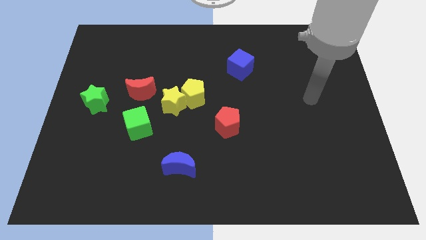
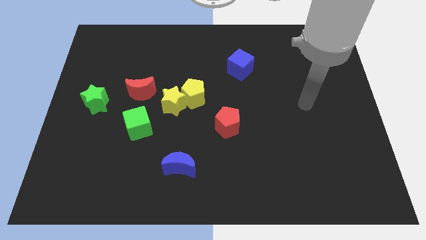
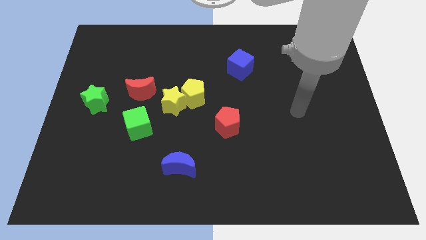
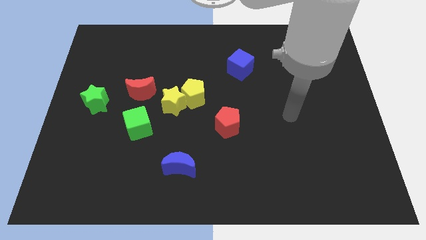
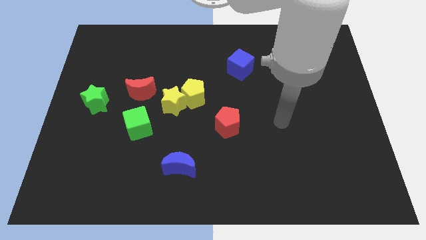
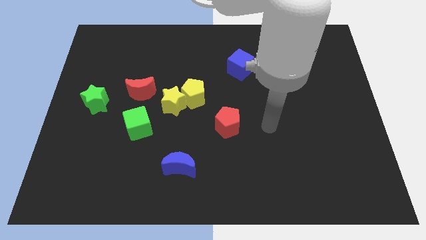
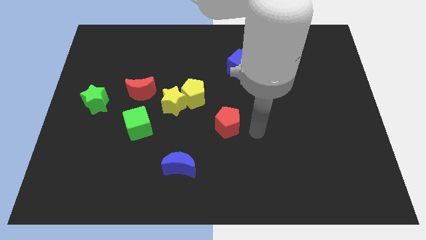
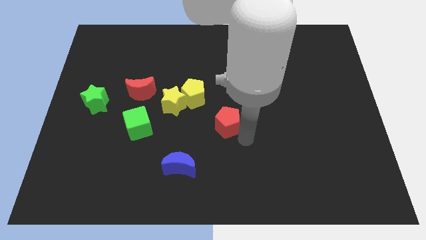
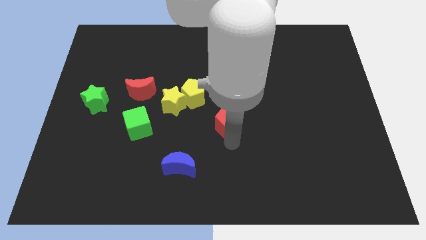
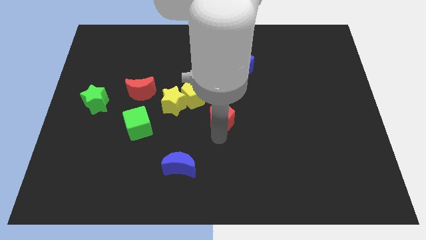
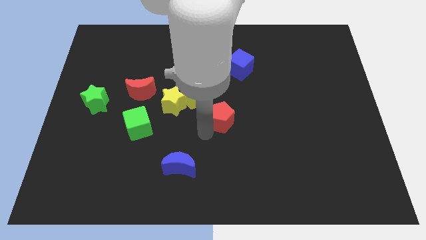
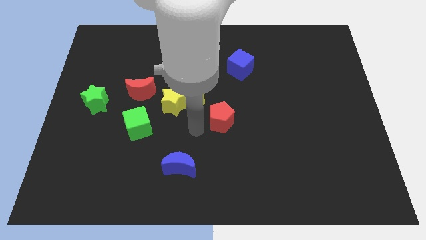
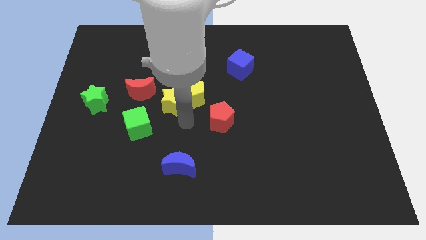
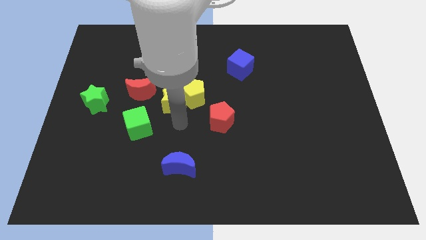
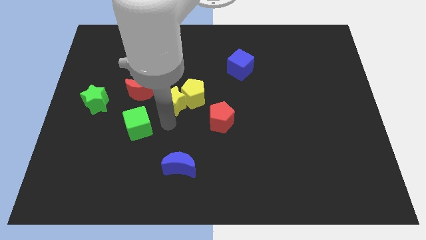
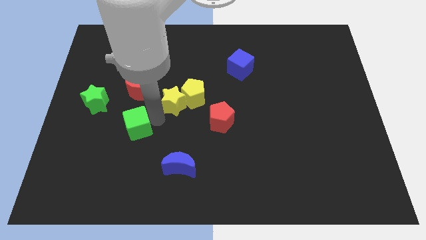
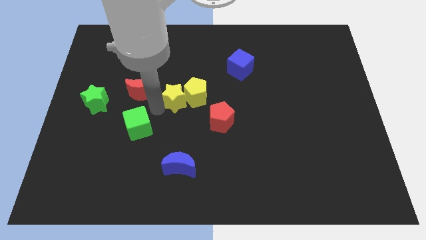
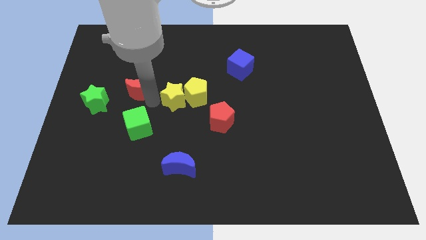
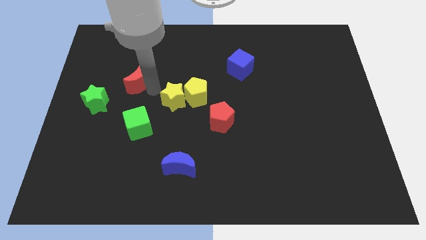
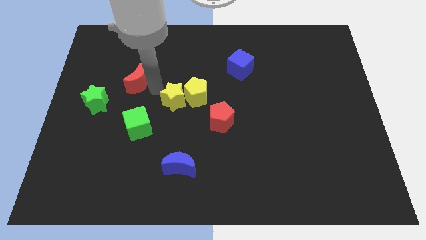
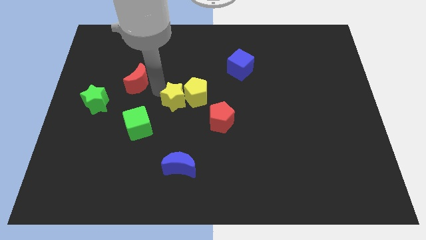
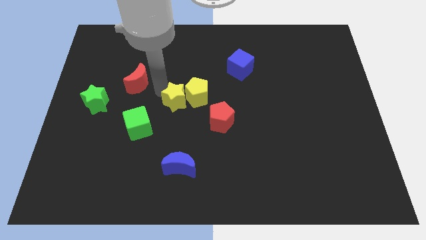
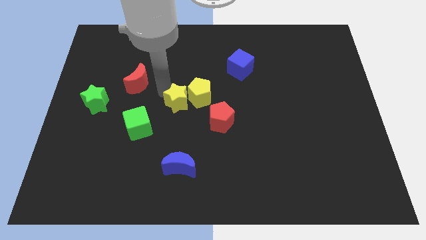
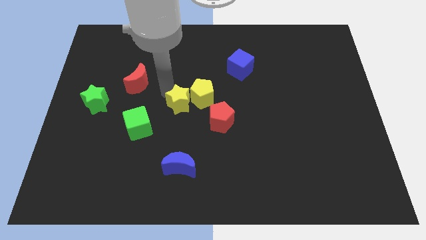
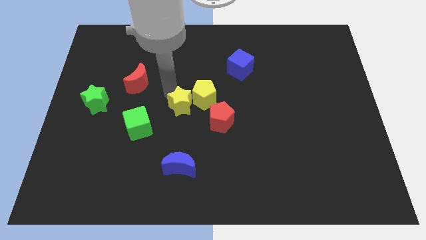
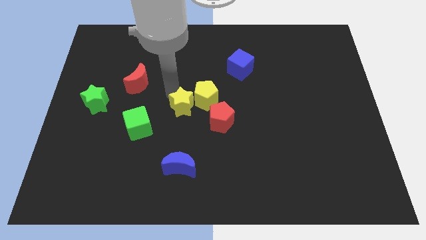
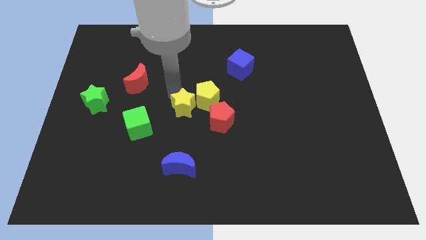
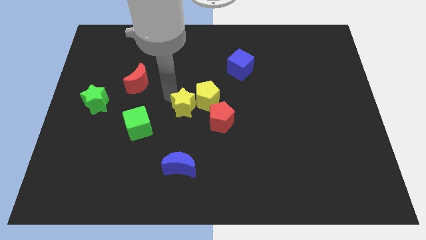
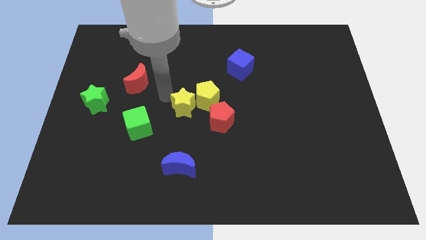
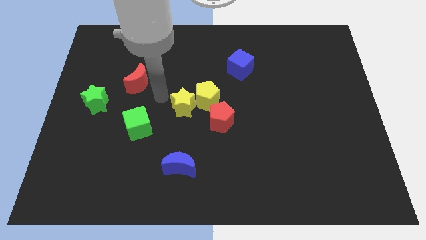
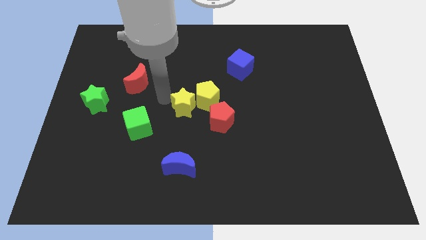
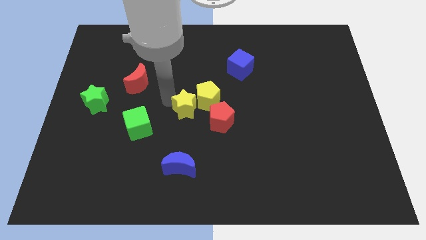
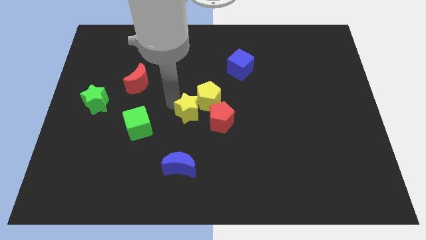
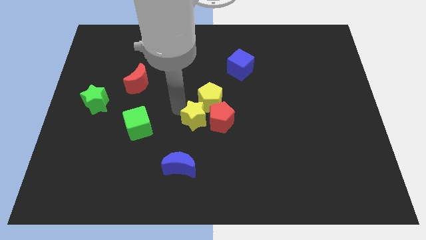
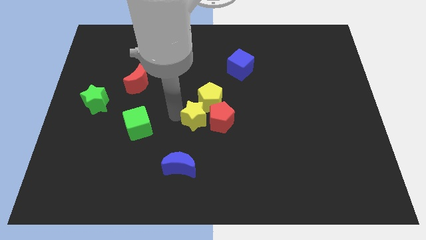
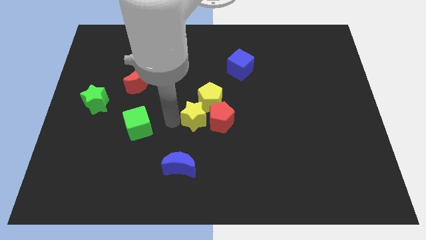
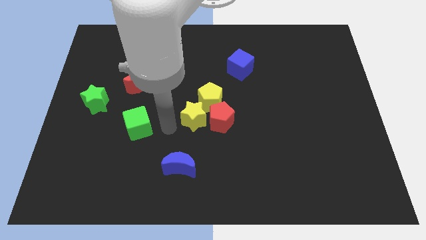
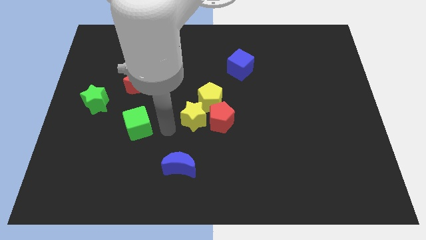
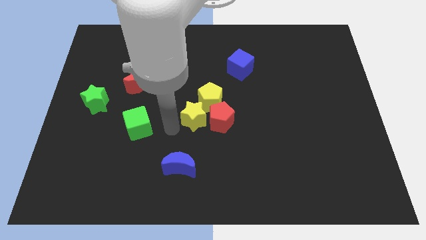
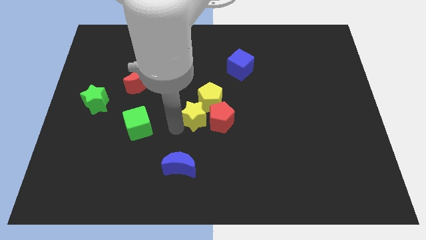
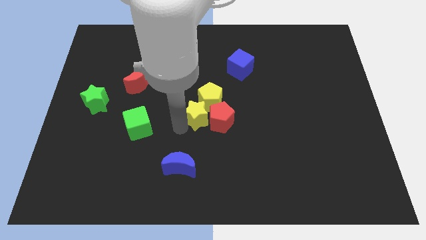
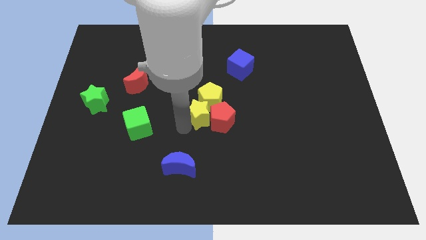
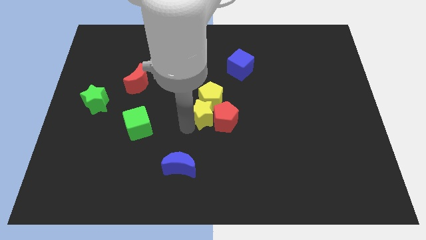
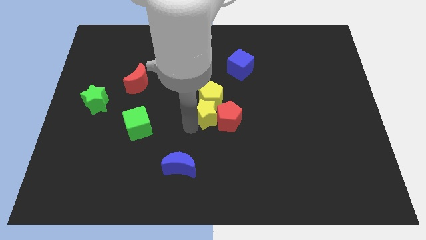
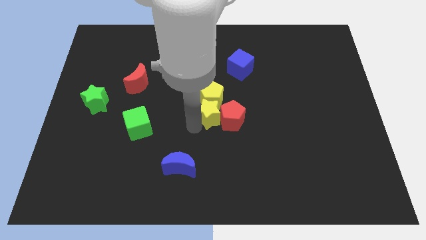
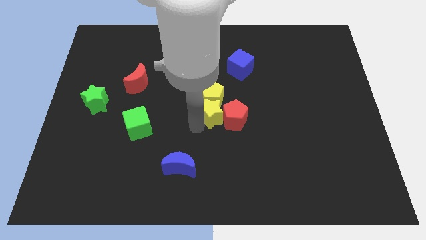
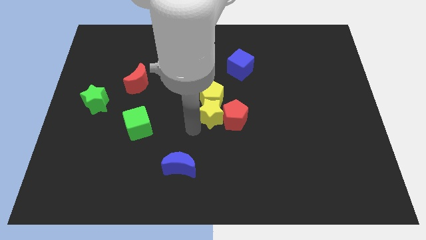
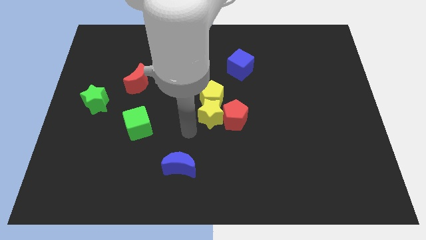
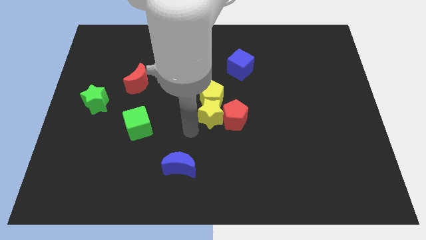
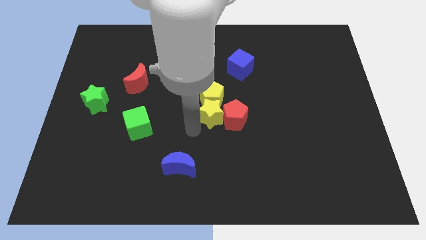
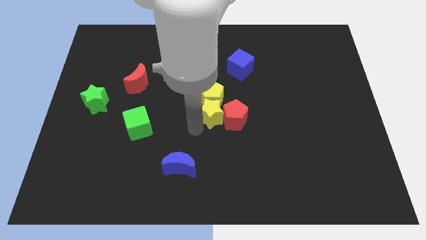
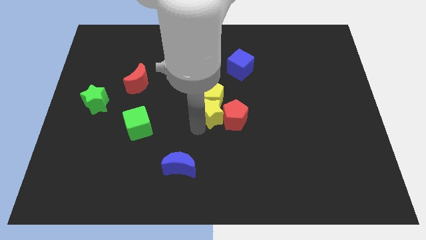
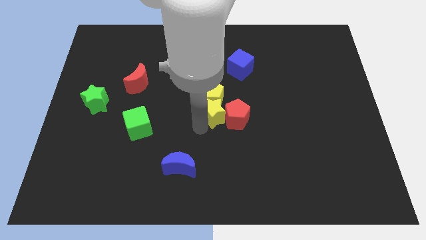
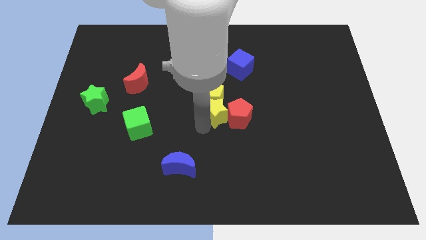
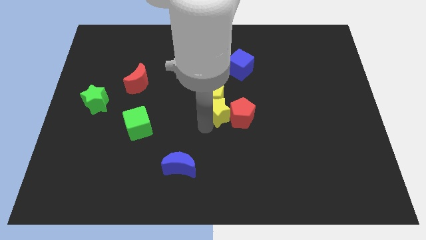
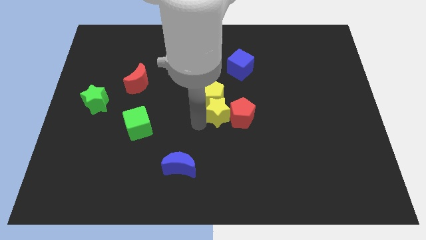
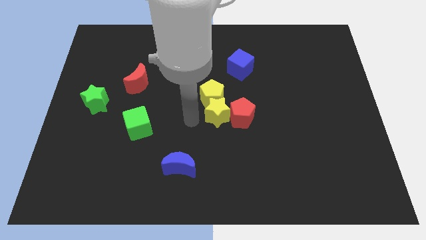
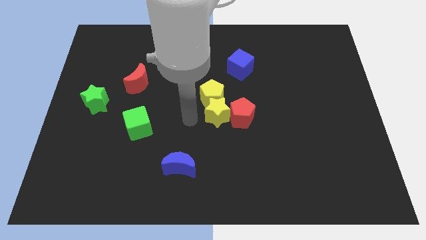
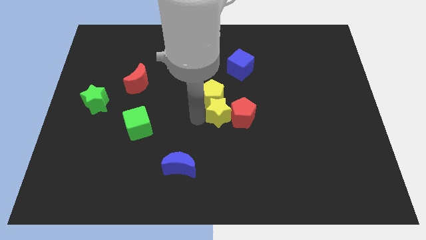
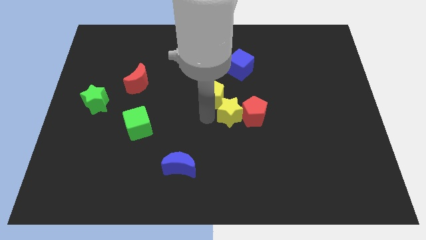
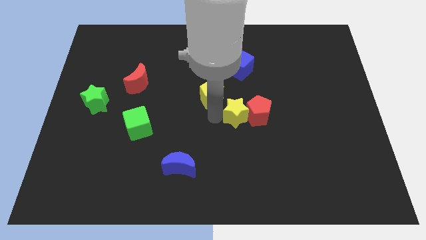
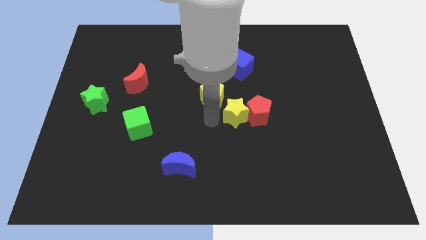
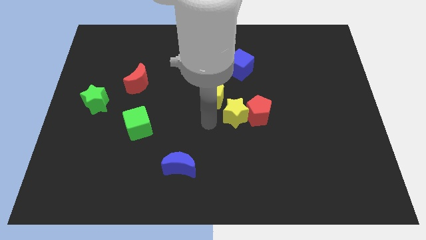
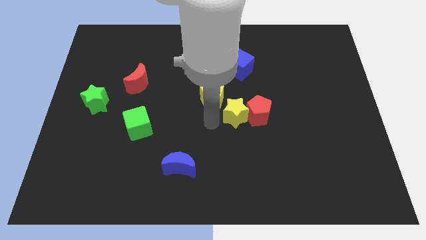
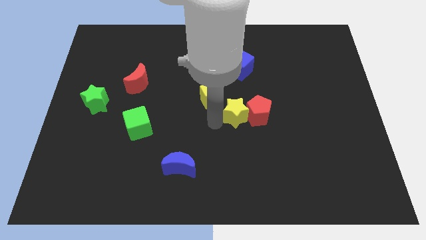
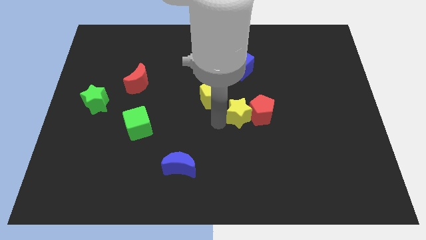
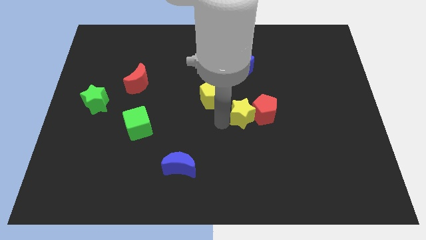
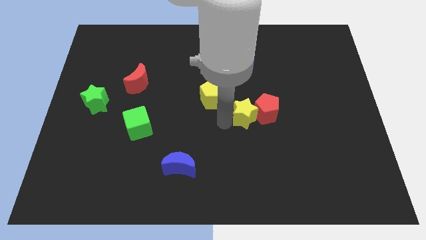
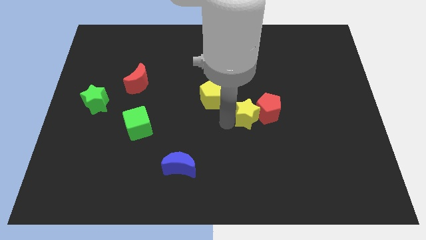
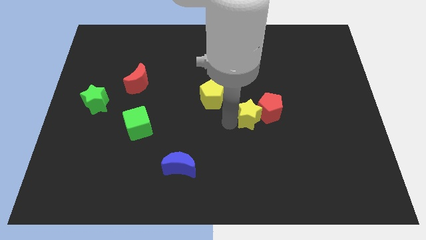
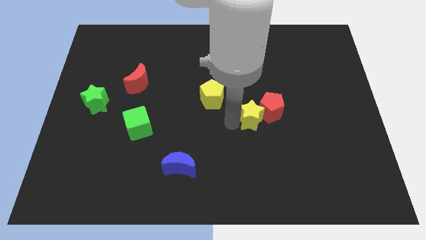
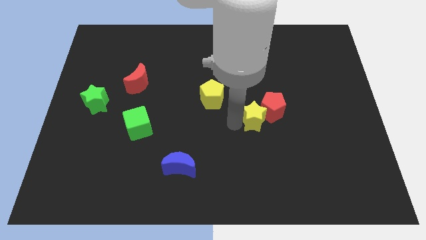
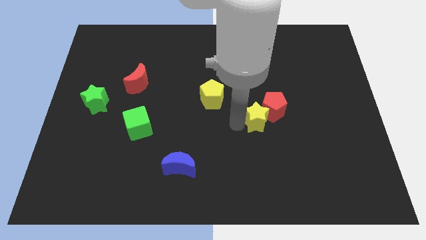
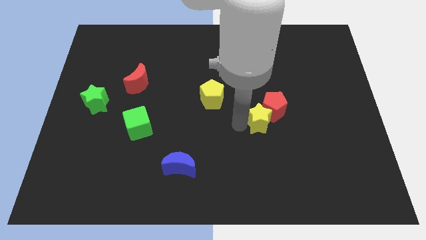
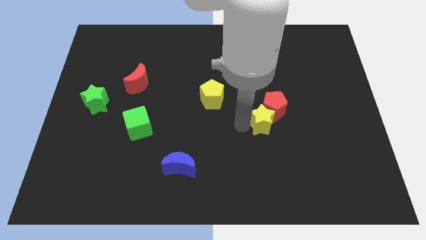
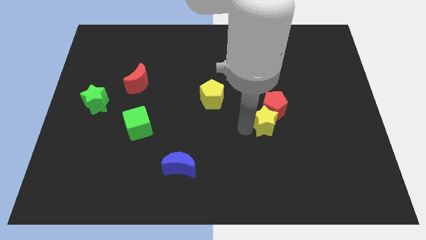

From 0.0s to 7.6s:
slide the yellow star right

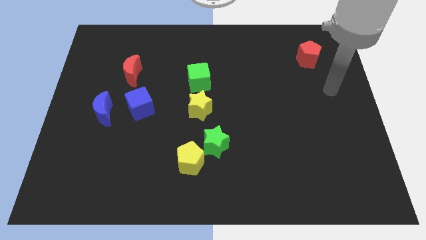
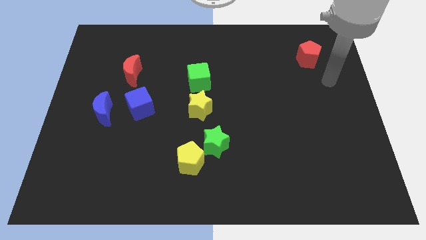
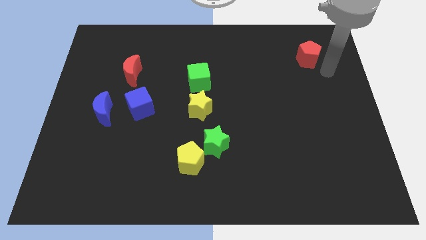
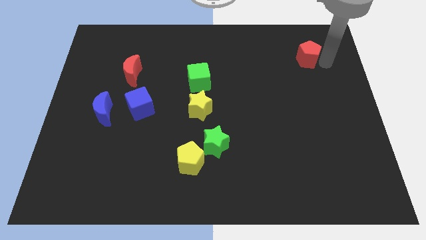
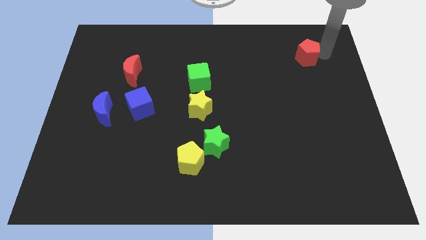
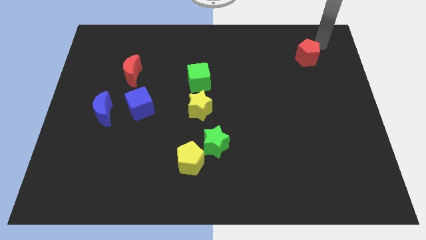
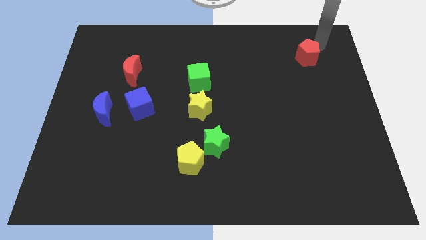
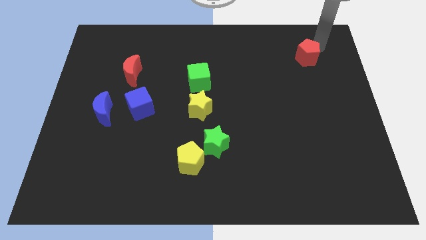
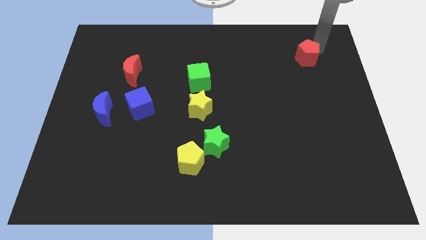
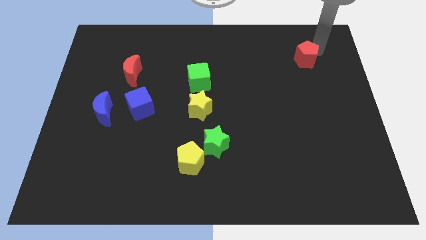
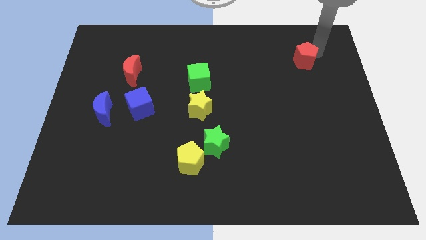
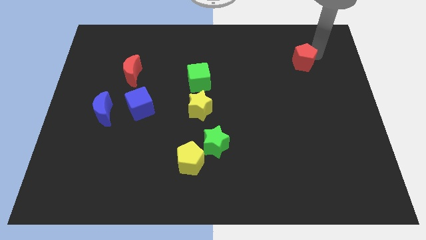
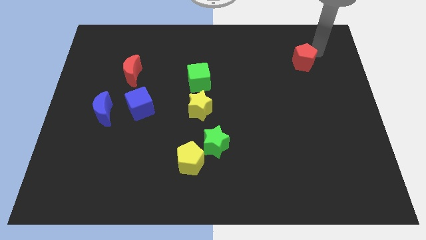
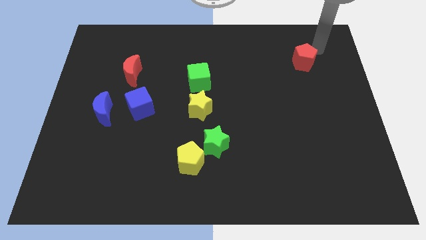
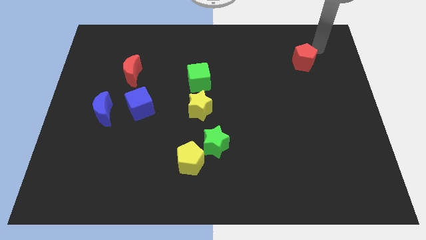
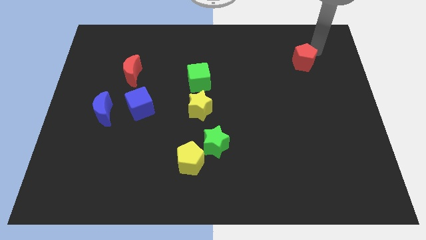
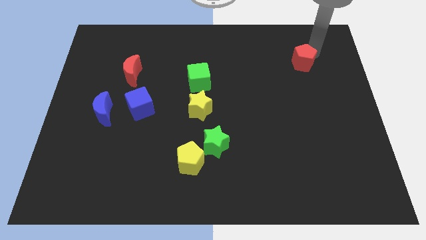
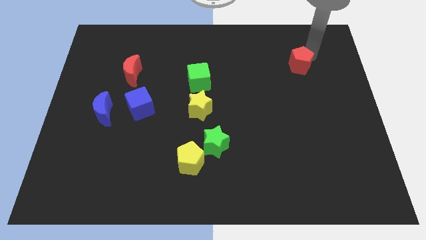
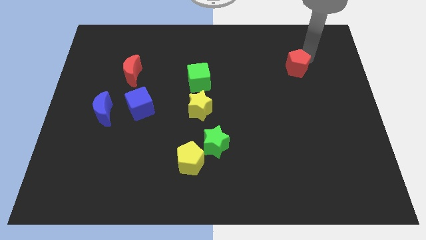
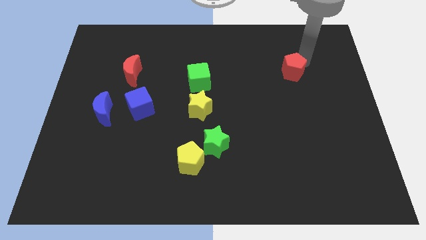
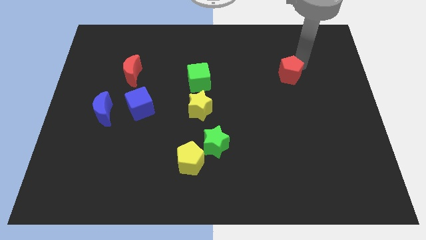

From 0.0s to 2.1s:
move the red pentagon a little down and left
